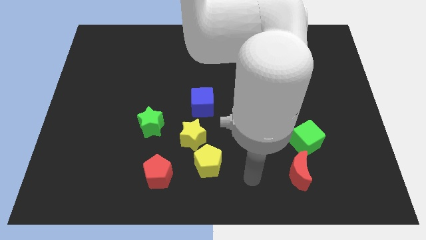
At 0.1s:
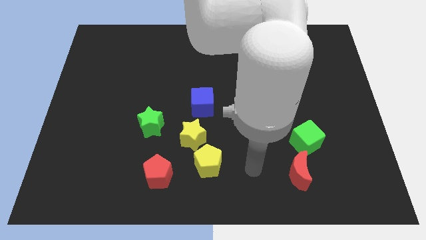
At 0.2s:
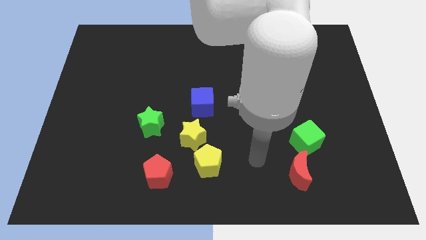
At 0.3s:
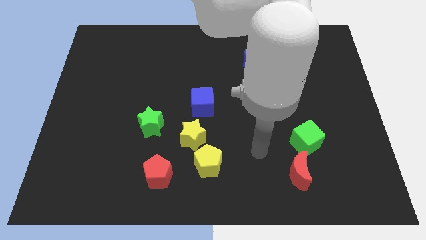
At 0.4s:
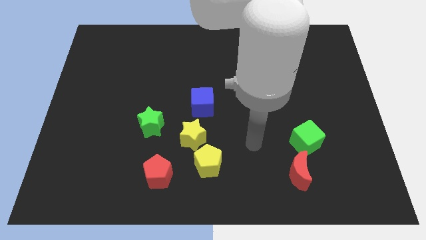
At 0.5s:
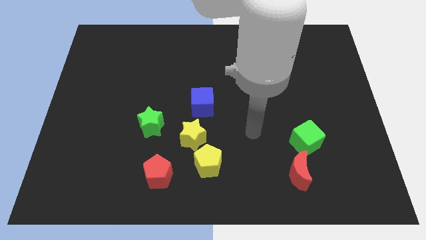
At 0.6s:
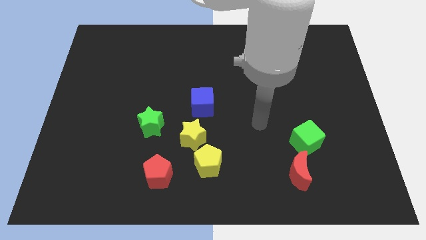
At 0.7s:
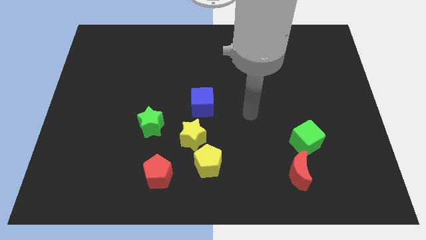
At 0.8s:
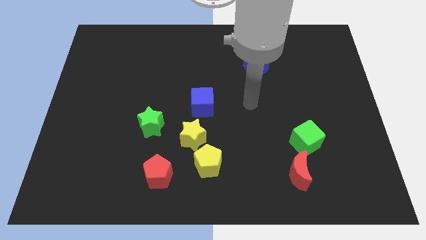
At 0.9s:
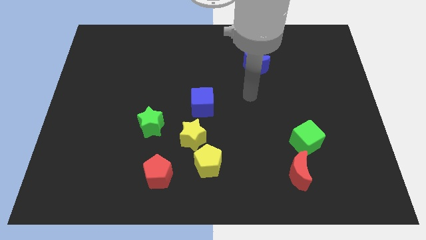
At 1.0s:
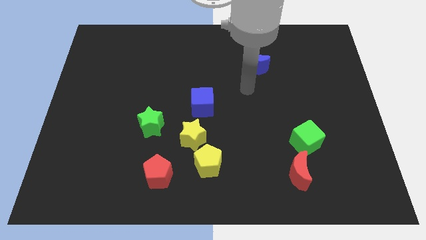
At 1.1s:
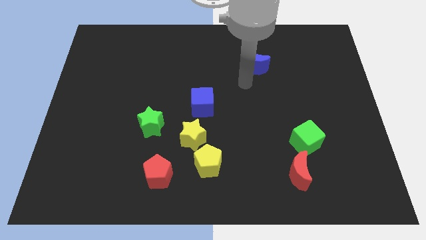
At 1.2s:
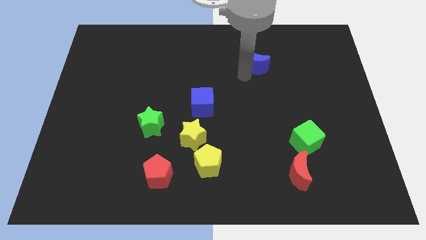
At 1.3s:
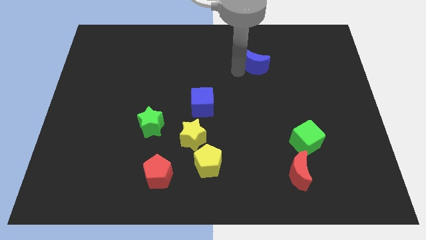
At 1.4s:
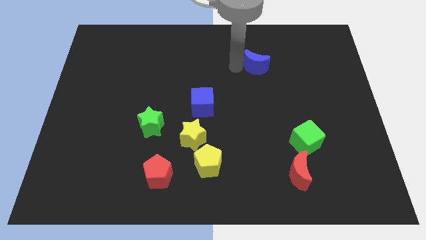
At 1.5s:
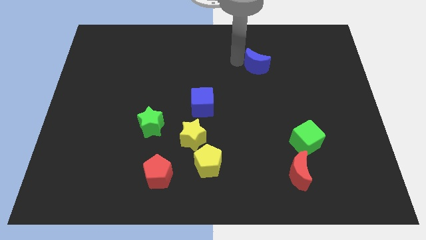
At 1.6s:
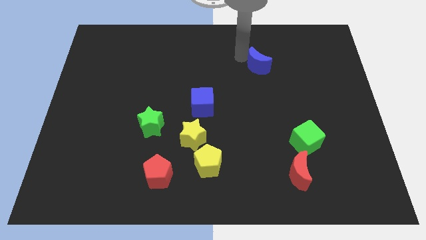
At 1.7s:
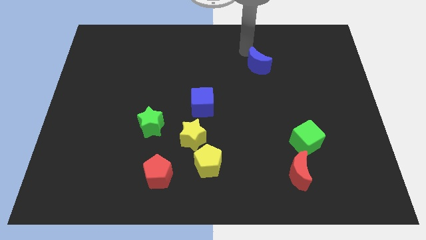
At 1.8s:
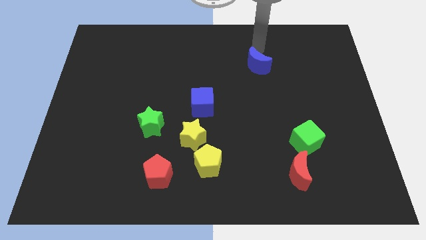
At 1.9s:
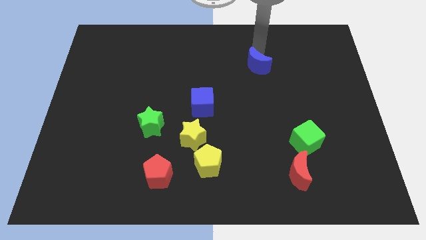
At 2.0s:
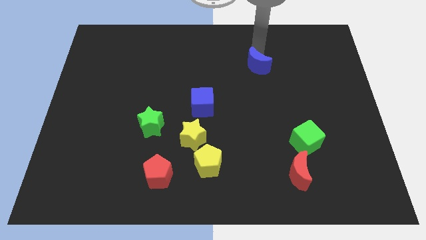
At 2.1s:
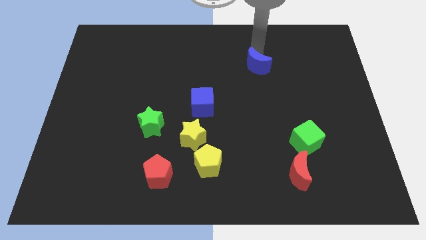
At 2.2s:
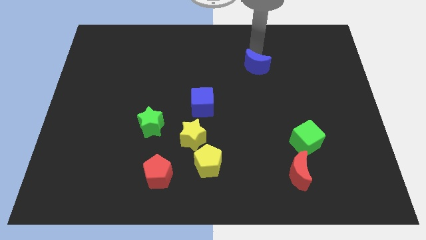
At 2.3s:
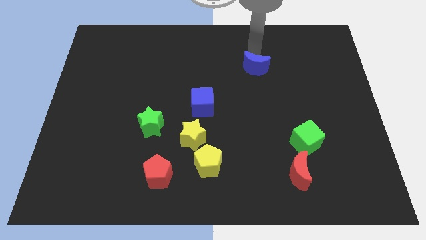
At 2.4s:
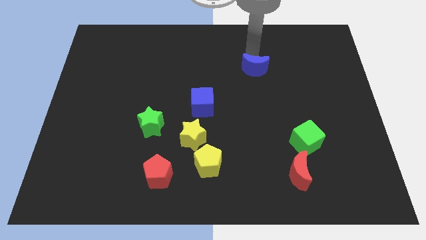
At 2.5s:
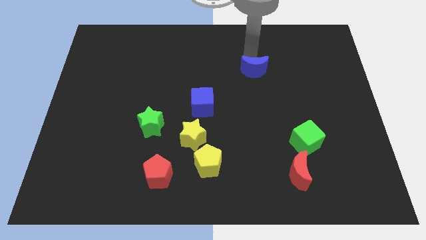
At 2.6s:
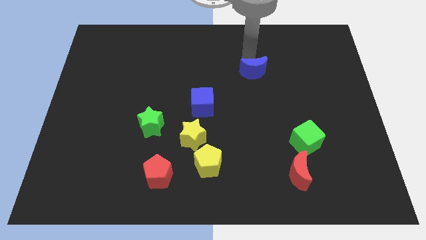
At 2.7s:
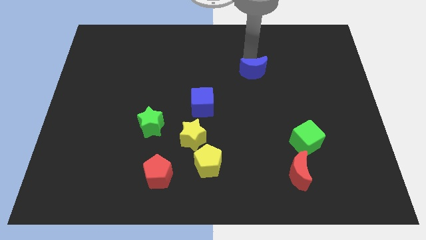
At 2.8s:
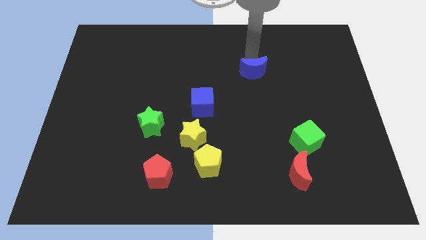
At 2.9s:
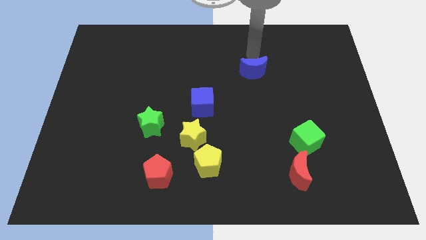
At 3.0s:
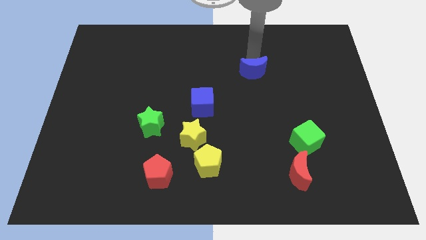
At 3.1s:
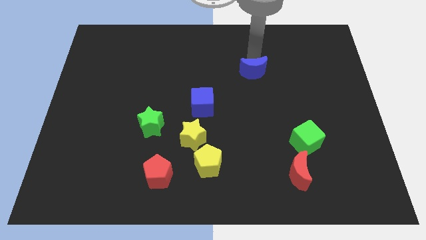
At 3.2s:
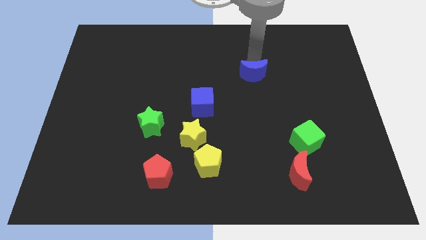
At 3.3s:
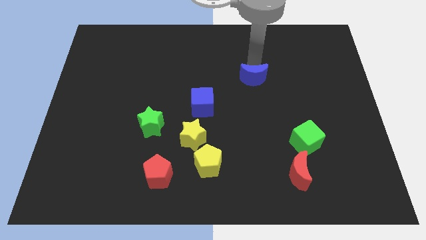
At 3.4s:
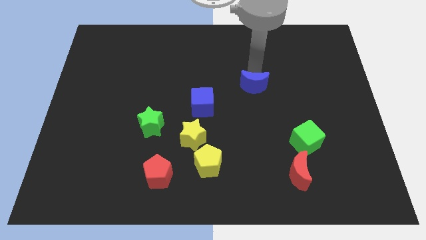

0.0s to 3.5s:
slightly push the blue moon down

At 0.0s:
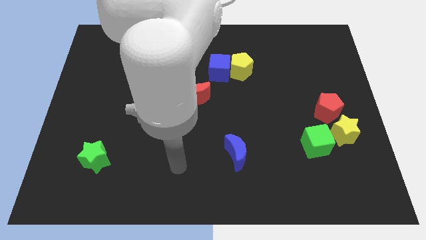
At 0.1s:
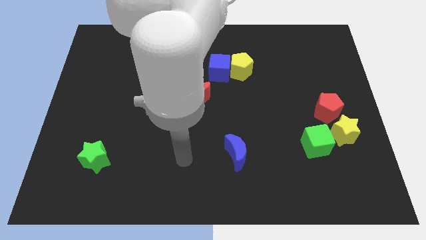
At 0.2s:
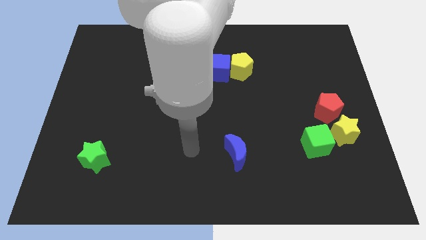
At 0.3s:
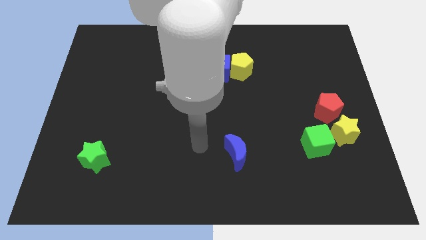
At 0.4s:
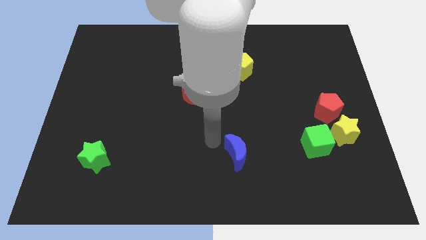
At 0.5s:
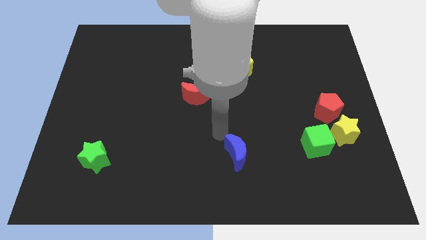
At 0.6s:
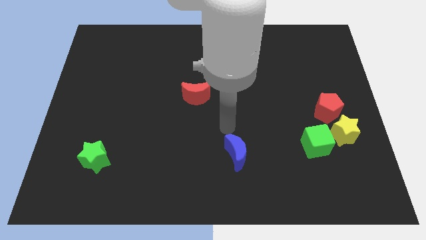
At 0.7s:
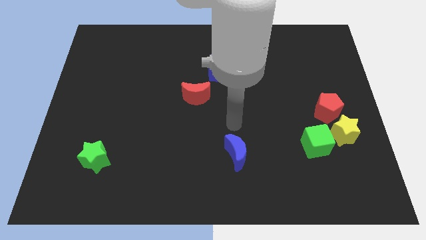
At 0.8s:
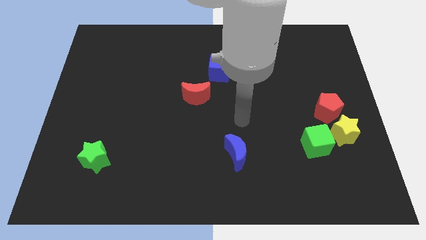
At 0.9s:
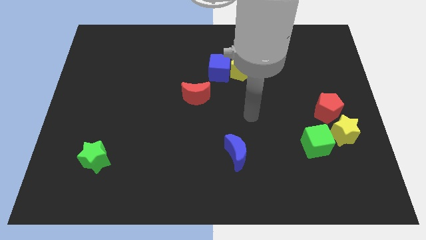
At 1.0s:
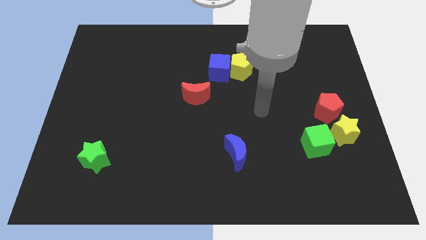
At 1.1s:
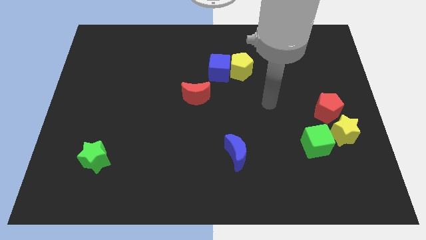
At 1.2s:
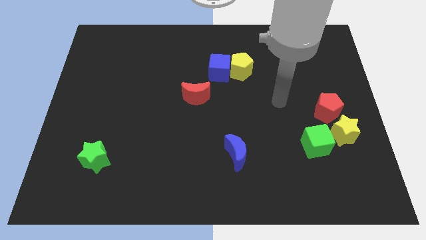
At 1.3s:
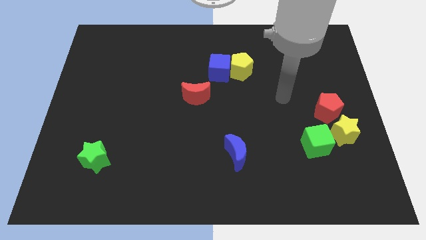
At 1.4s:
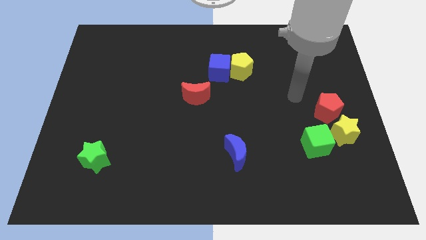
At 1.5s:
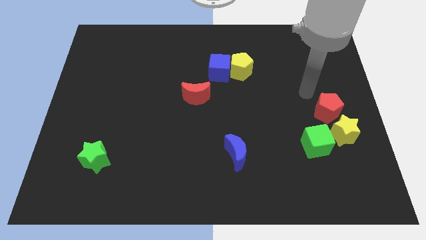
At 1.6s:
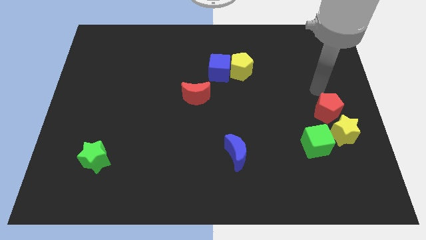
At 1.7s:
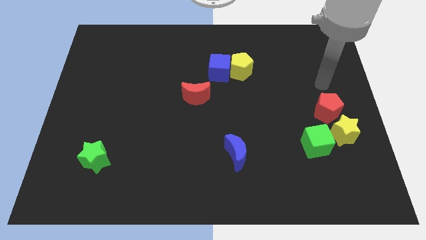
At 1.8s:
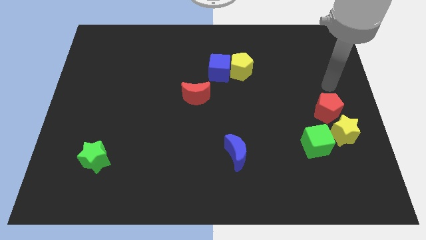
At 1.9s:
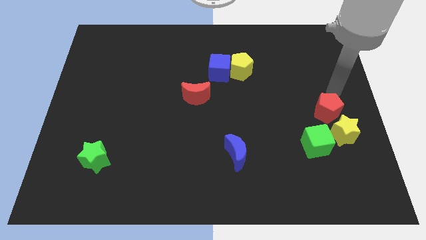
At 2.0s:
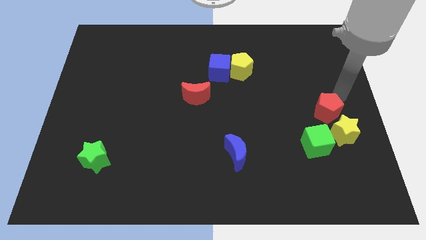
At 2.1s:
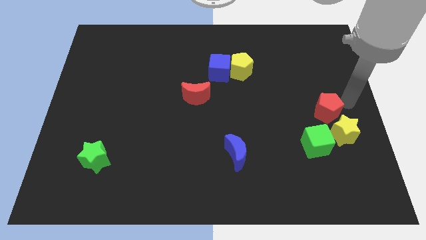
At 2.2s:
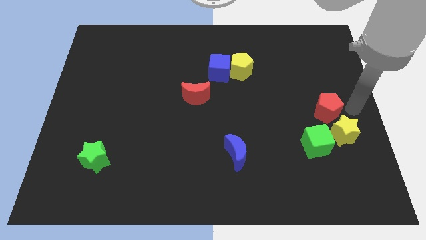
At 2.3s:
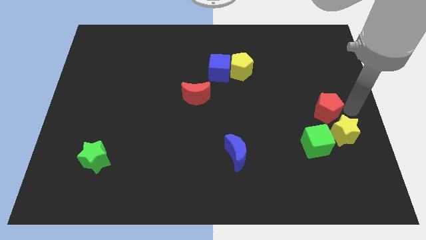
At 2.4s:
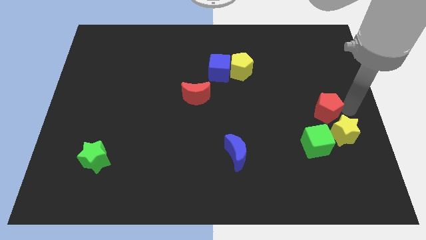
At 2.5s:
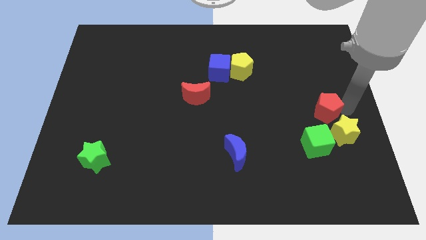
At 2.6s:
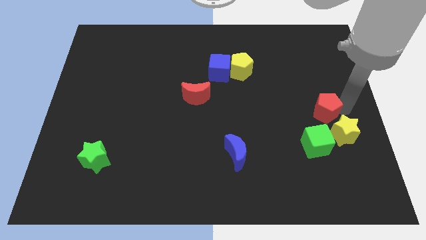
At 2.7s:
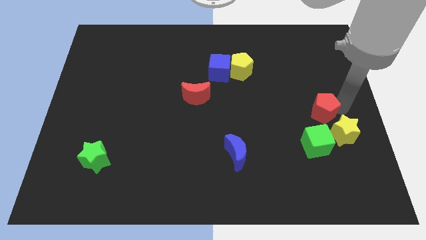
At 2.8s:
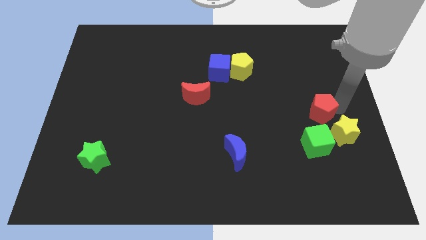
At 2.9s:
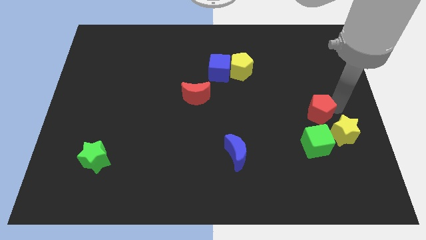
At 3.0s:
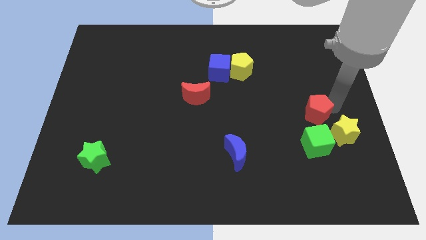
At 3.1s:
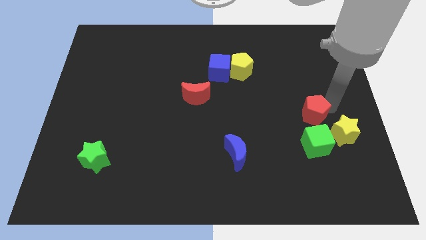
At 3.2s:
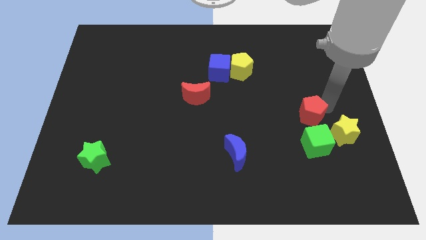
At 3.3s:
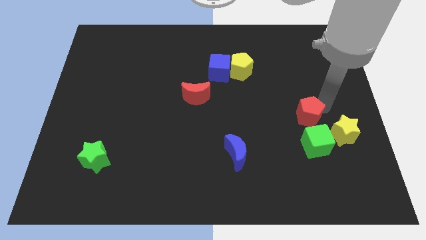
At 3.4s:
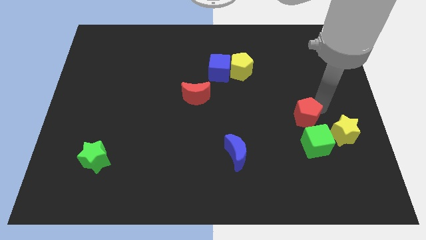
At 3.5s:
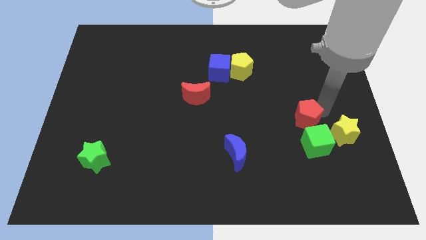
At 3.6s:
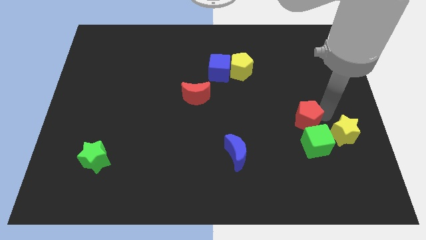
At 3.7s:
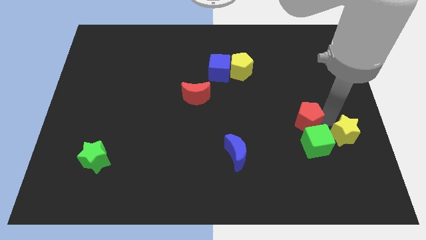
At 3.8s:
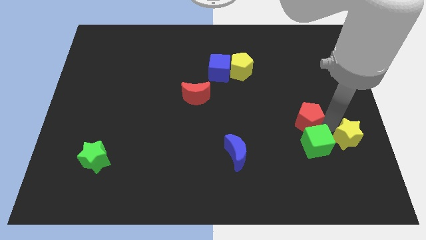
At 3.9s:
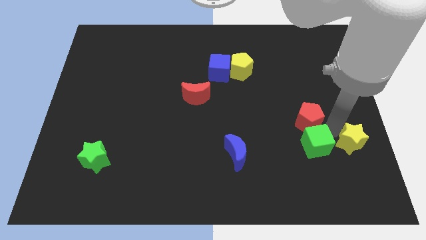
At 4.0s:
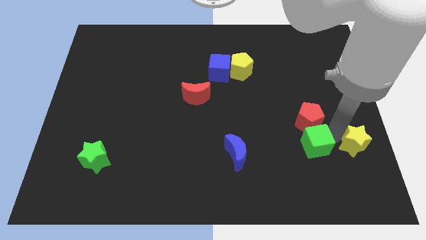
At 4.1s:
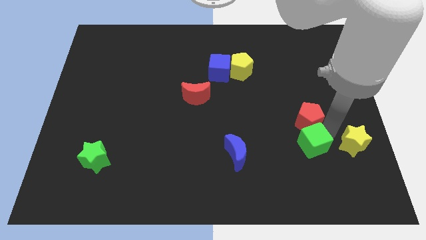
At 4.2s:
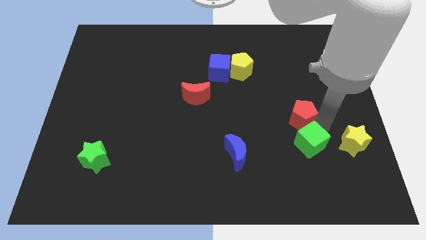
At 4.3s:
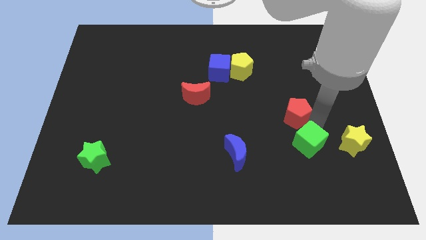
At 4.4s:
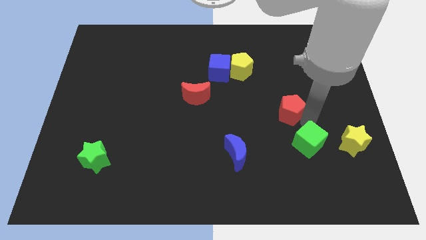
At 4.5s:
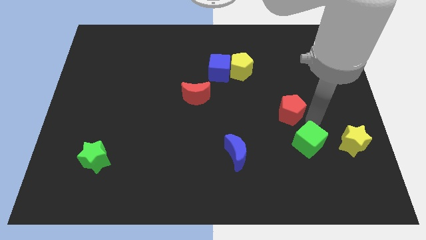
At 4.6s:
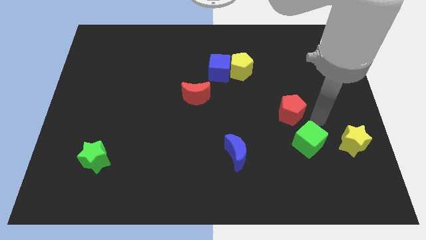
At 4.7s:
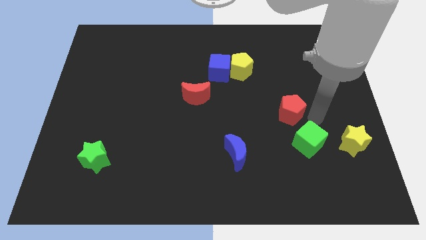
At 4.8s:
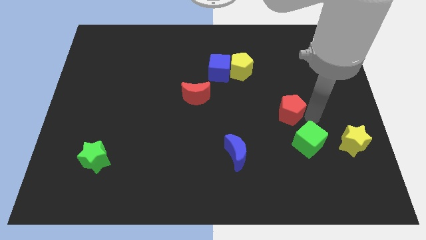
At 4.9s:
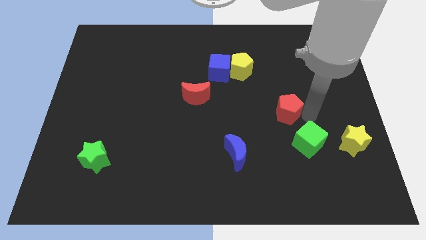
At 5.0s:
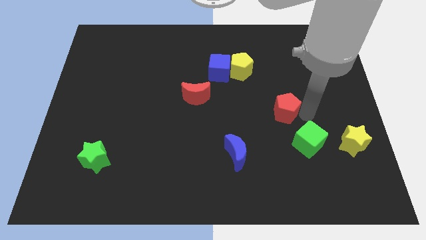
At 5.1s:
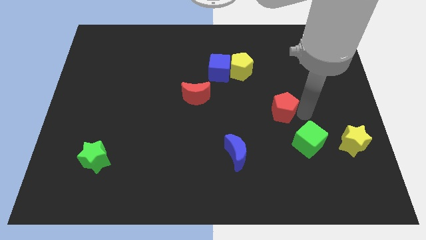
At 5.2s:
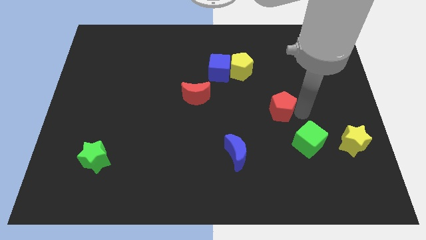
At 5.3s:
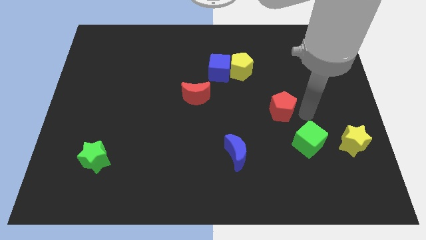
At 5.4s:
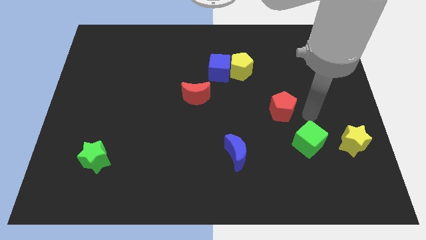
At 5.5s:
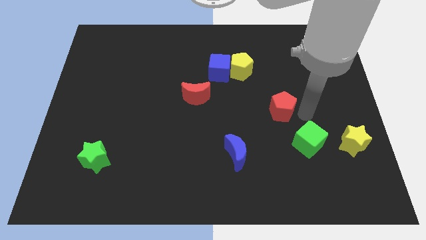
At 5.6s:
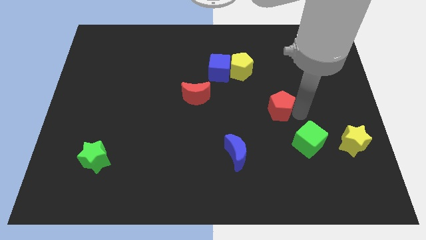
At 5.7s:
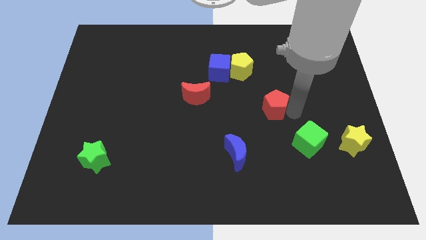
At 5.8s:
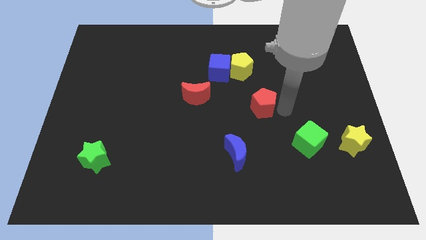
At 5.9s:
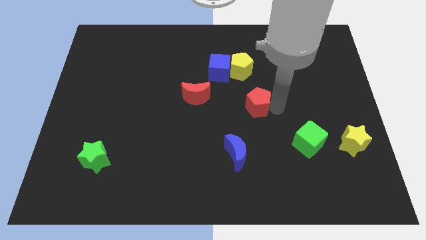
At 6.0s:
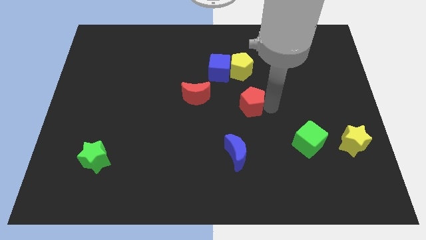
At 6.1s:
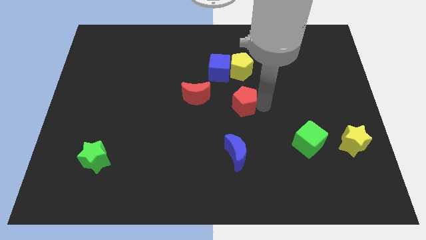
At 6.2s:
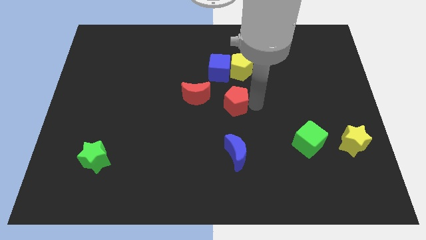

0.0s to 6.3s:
move the red pentagon to the left
